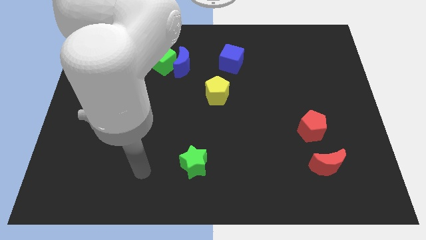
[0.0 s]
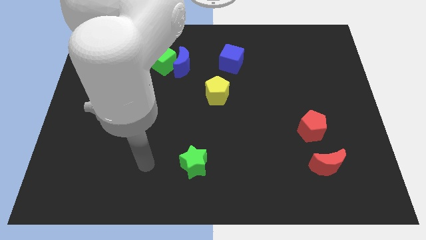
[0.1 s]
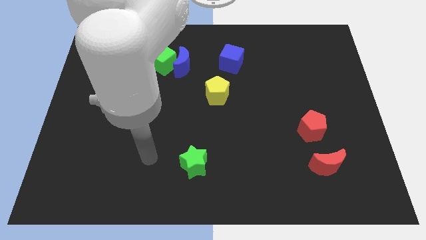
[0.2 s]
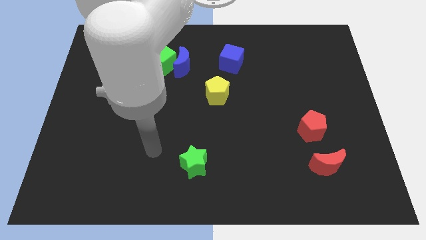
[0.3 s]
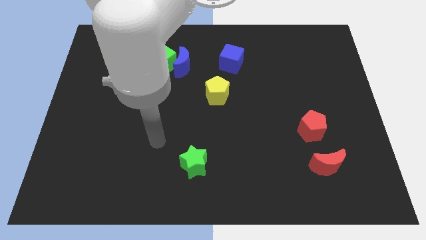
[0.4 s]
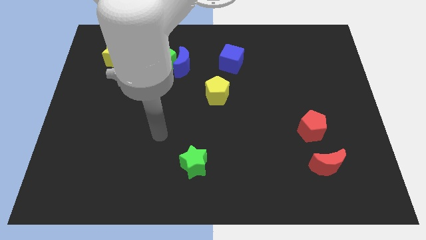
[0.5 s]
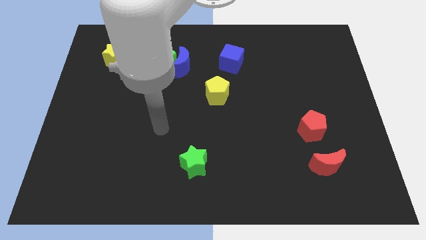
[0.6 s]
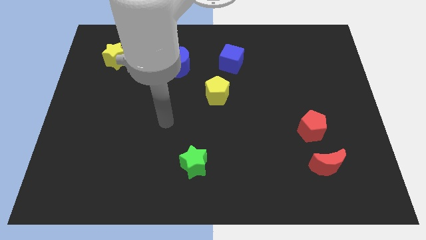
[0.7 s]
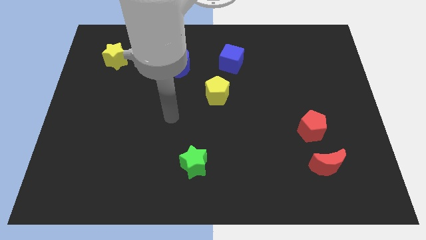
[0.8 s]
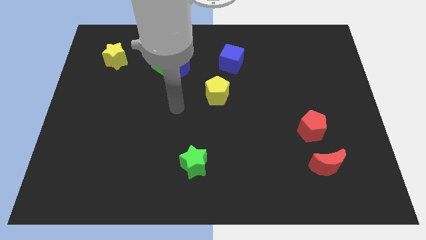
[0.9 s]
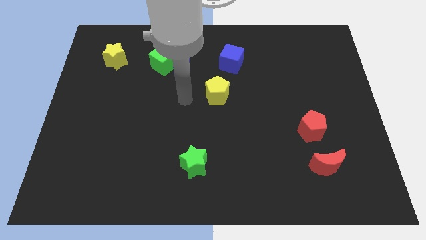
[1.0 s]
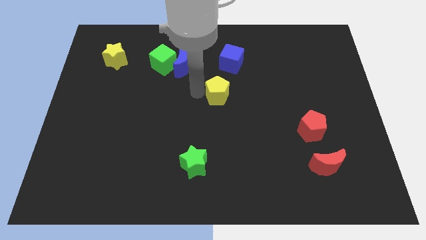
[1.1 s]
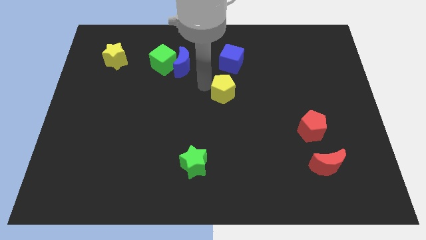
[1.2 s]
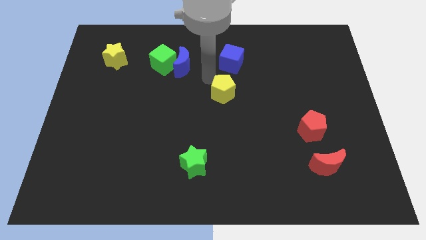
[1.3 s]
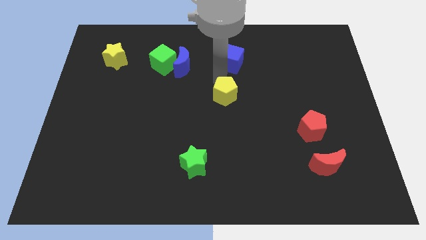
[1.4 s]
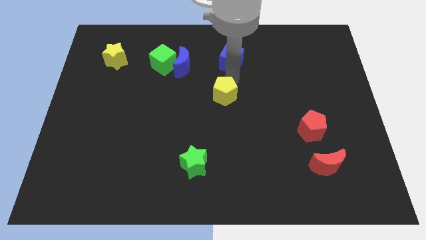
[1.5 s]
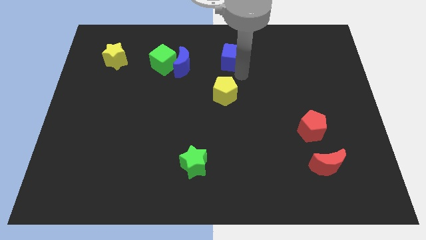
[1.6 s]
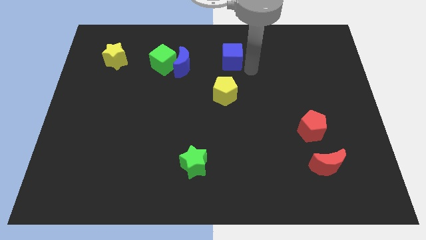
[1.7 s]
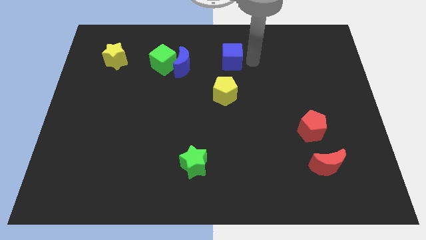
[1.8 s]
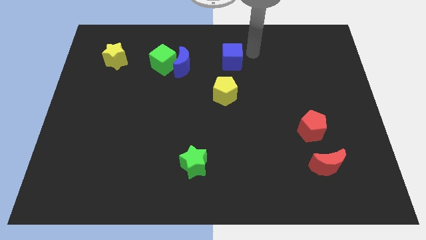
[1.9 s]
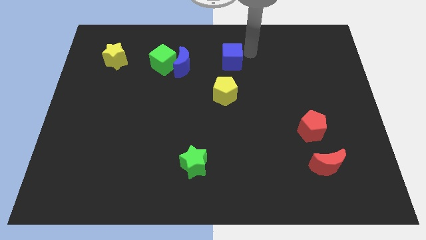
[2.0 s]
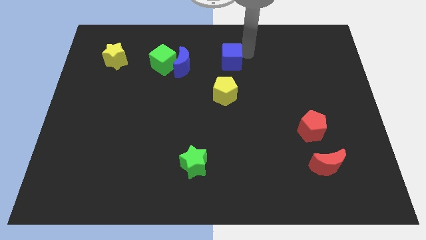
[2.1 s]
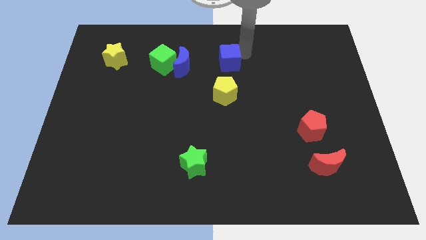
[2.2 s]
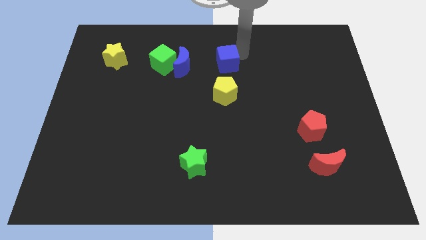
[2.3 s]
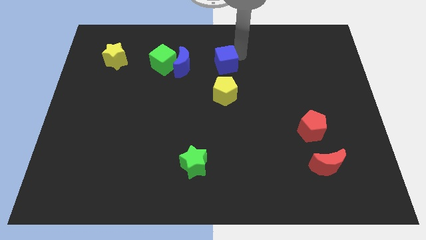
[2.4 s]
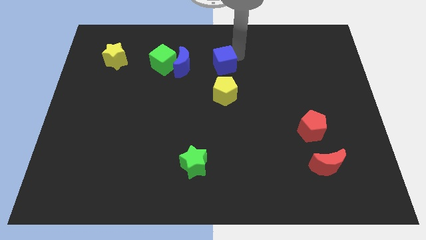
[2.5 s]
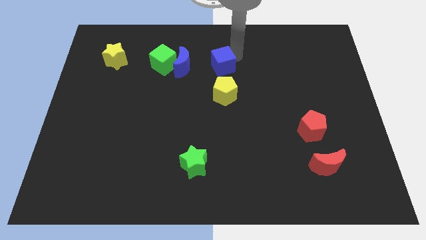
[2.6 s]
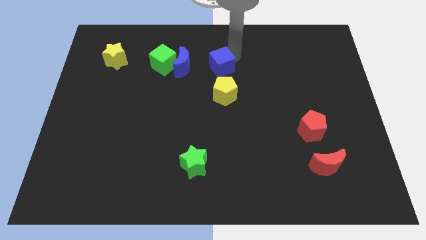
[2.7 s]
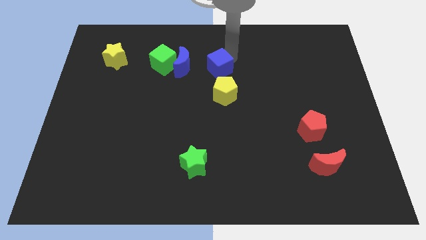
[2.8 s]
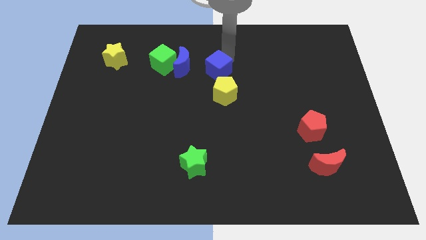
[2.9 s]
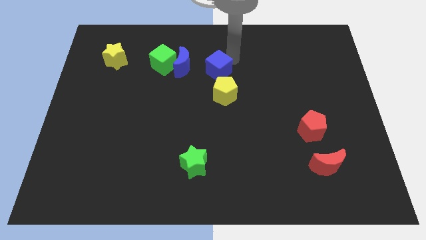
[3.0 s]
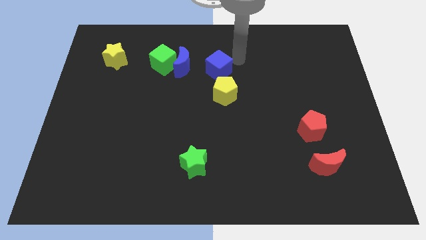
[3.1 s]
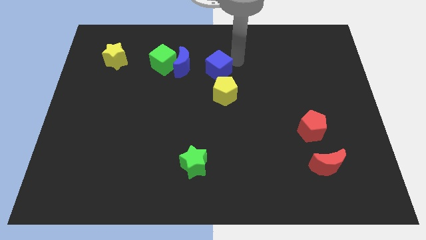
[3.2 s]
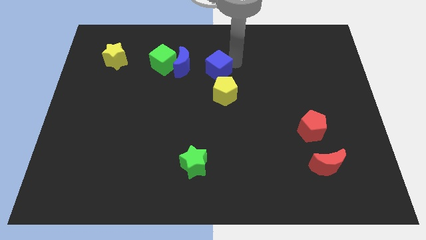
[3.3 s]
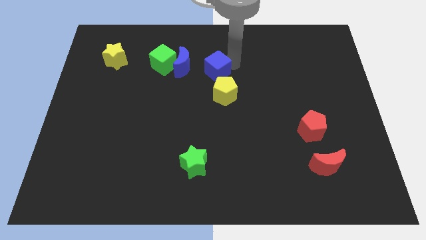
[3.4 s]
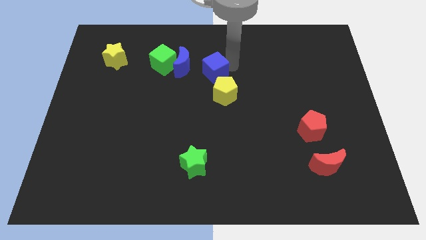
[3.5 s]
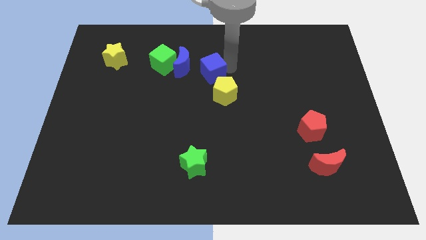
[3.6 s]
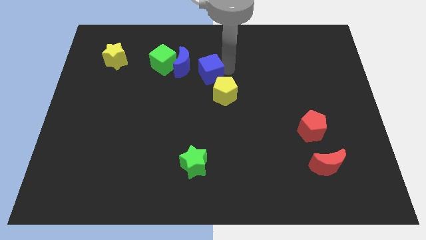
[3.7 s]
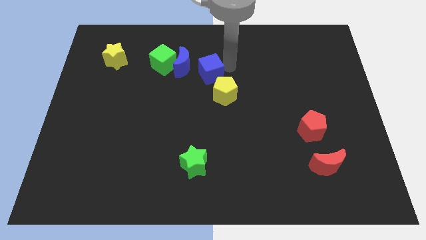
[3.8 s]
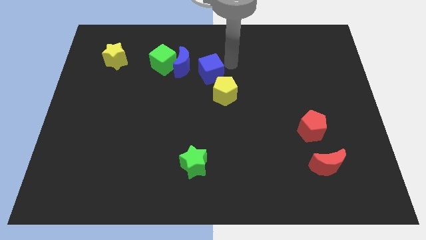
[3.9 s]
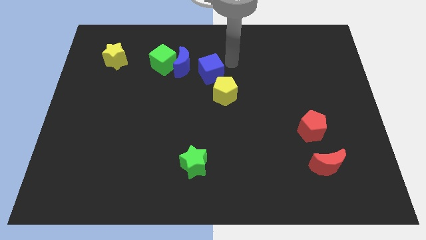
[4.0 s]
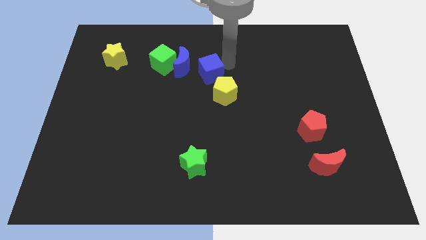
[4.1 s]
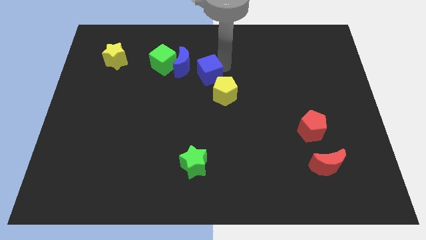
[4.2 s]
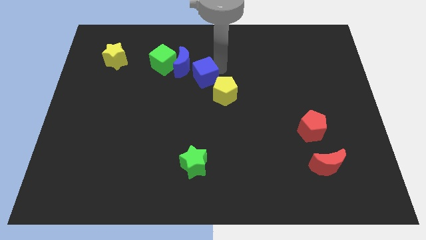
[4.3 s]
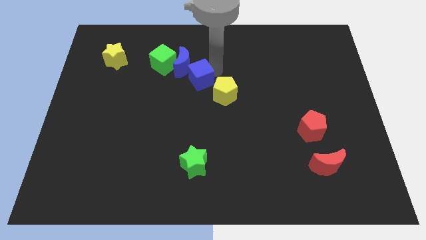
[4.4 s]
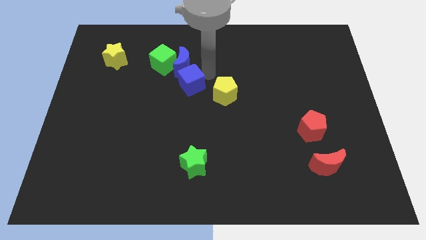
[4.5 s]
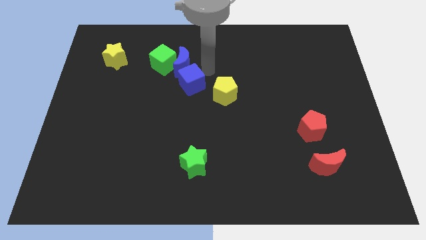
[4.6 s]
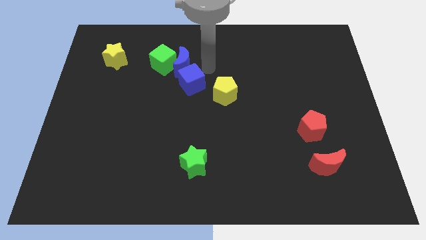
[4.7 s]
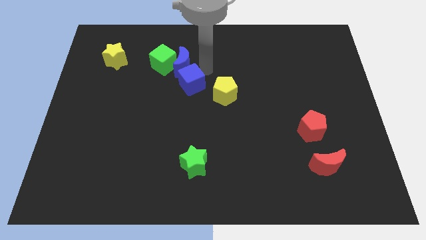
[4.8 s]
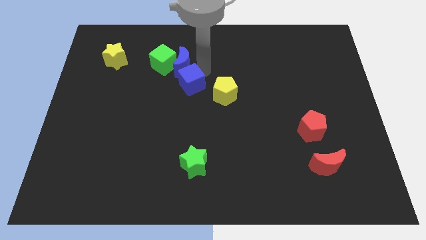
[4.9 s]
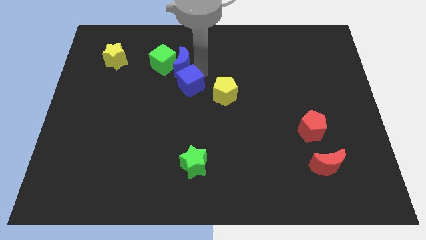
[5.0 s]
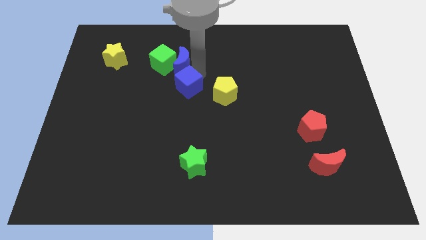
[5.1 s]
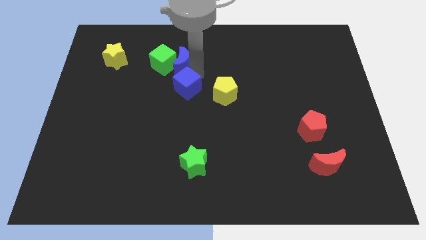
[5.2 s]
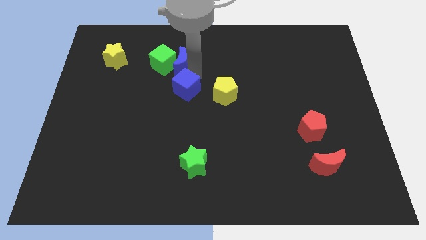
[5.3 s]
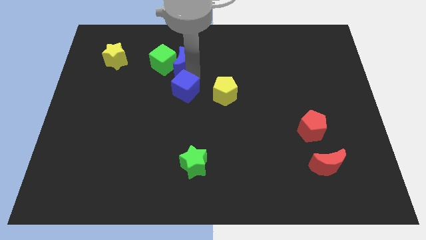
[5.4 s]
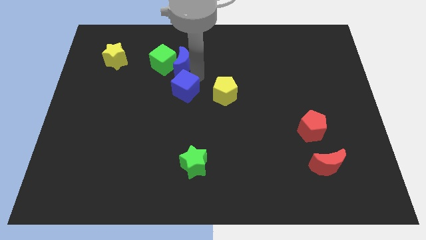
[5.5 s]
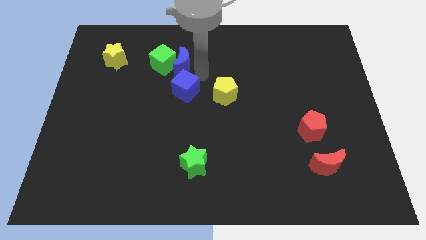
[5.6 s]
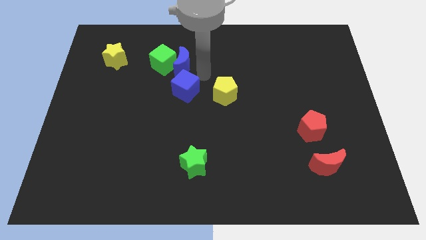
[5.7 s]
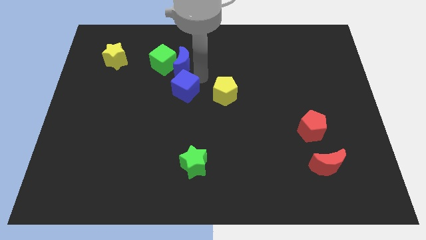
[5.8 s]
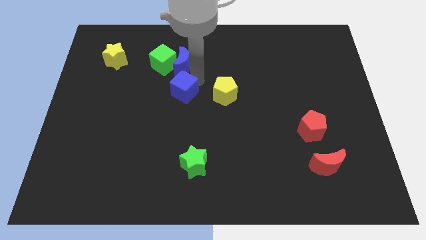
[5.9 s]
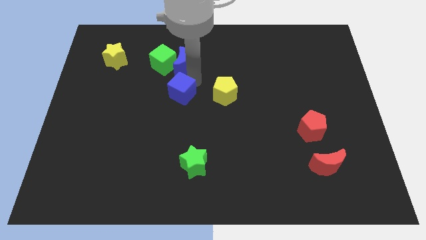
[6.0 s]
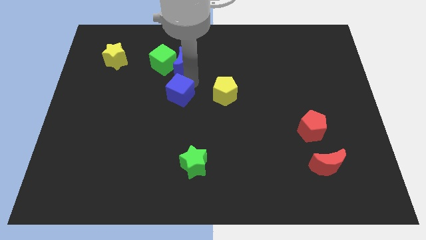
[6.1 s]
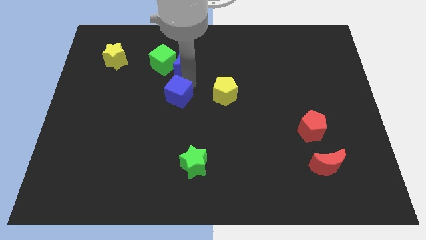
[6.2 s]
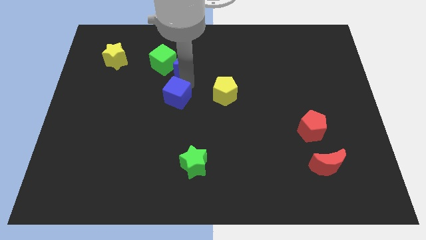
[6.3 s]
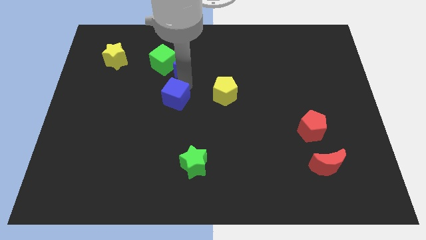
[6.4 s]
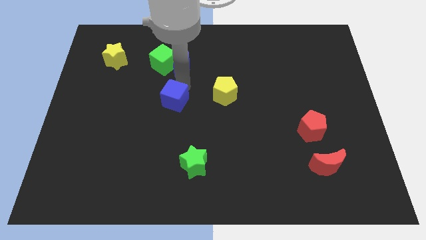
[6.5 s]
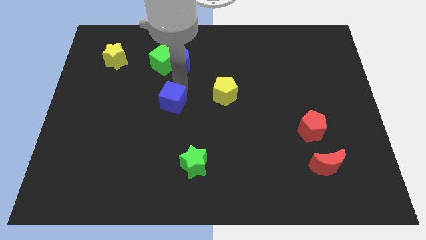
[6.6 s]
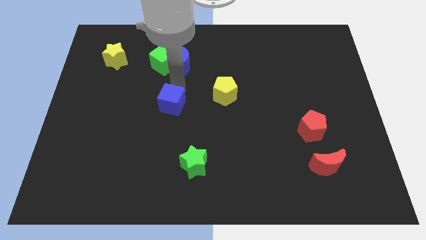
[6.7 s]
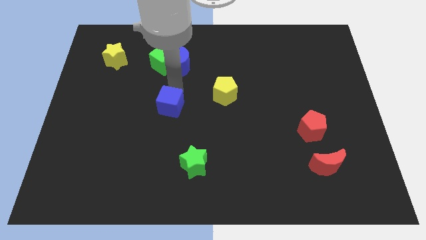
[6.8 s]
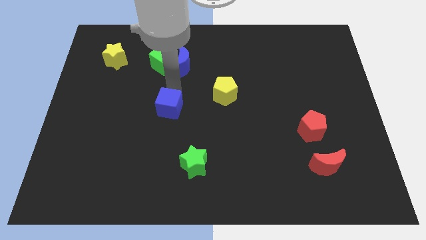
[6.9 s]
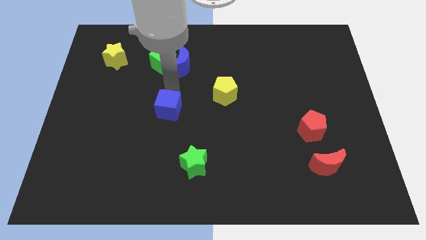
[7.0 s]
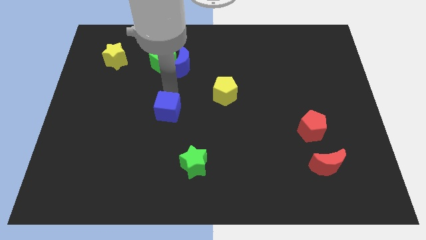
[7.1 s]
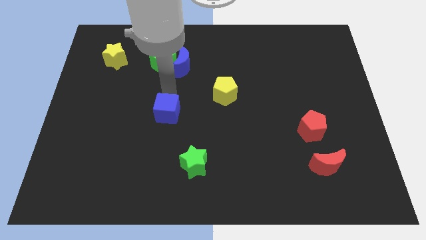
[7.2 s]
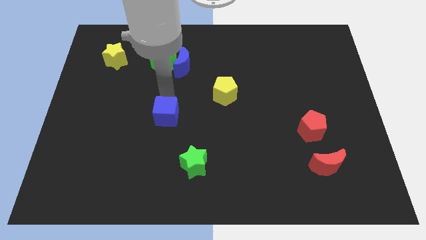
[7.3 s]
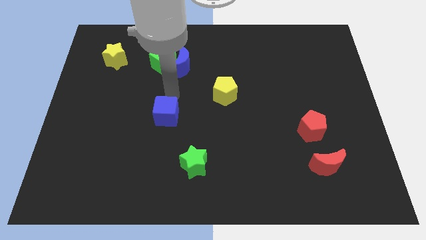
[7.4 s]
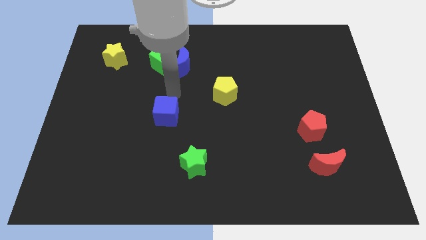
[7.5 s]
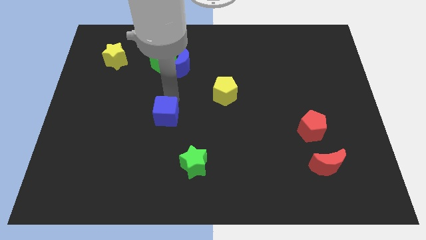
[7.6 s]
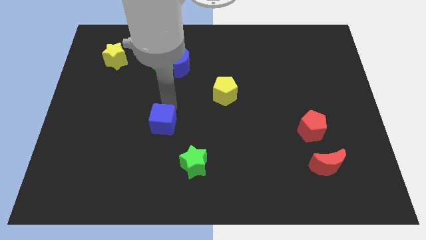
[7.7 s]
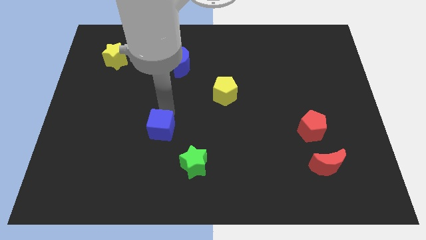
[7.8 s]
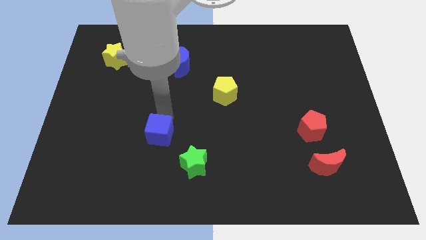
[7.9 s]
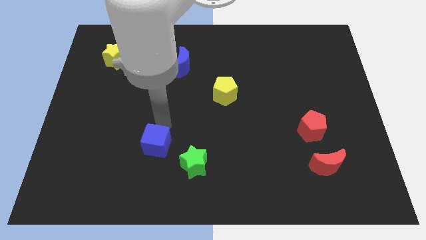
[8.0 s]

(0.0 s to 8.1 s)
push the blue cube left of the green star
